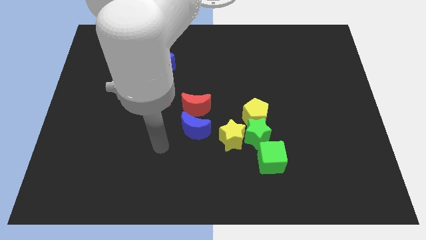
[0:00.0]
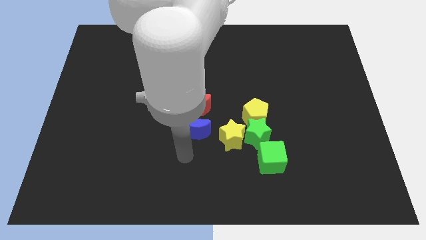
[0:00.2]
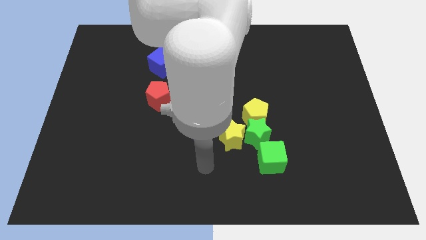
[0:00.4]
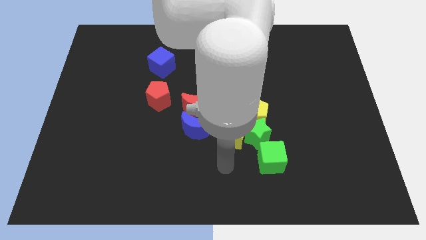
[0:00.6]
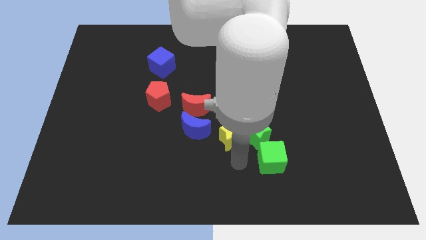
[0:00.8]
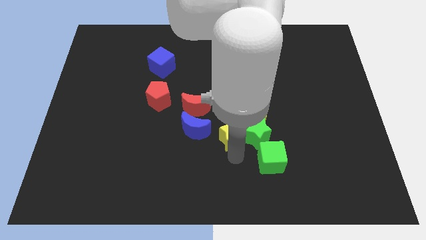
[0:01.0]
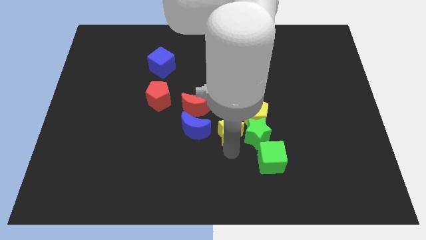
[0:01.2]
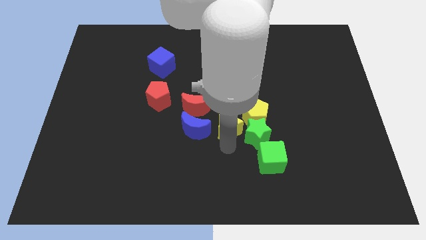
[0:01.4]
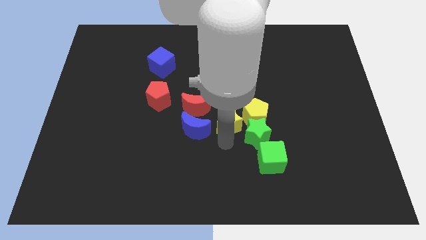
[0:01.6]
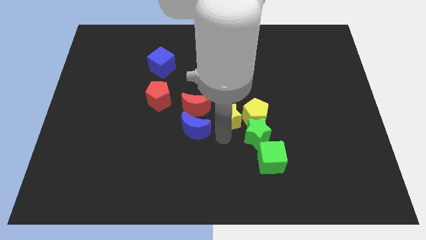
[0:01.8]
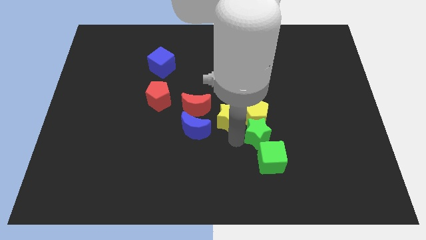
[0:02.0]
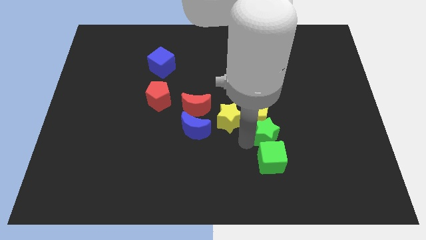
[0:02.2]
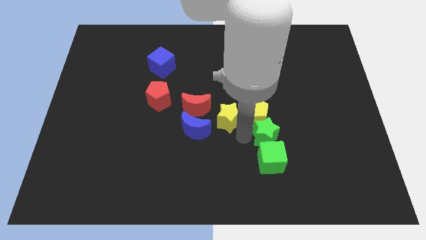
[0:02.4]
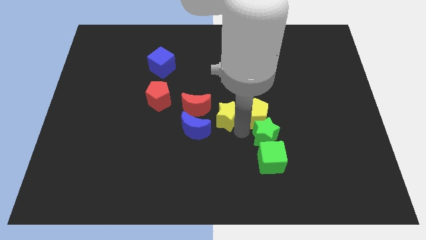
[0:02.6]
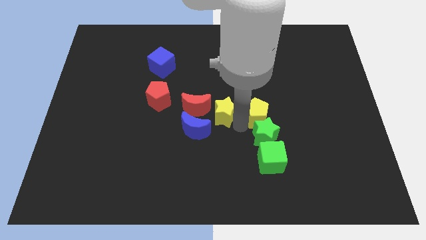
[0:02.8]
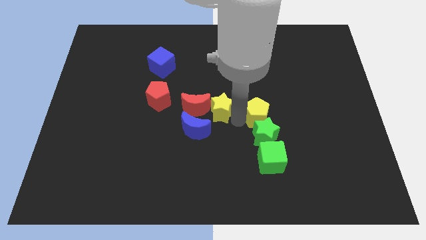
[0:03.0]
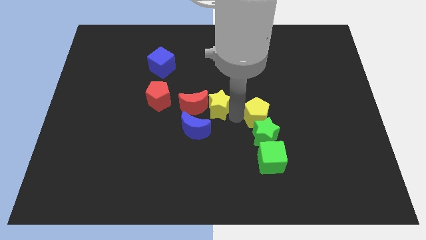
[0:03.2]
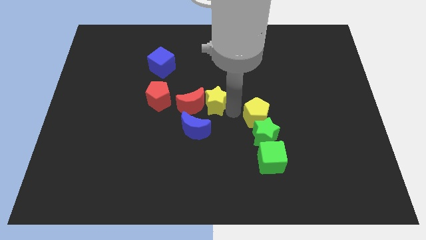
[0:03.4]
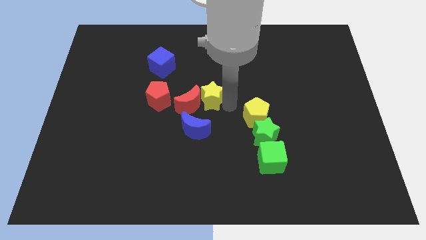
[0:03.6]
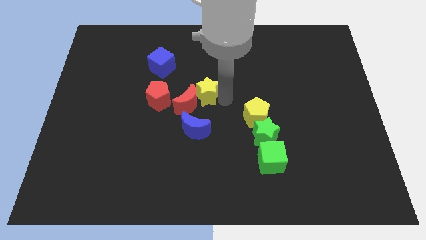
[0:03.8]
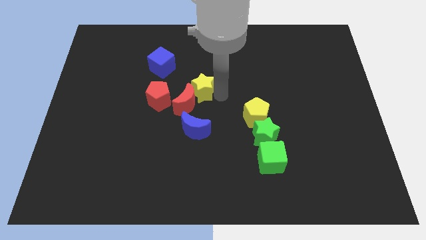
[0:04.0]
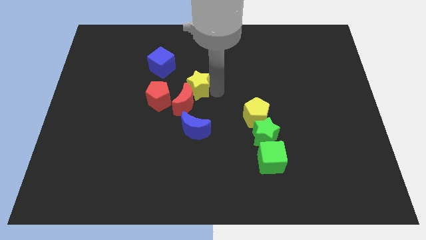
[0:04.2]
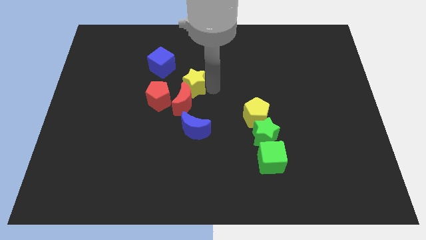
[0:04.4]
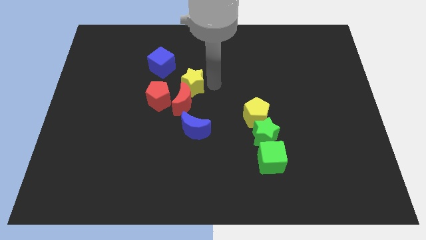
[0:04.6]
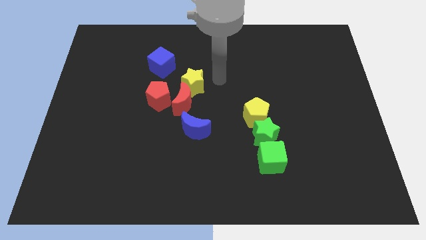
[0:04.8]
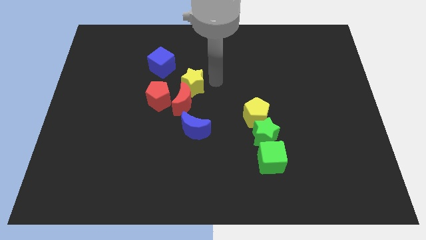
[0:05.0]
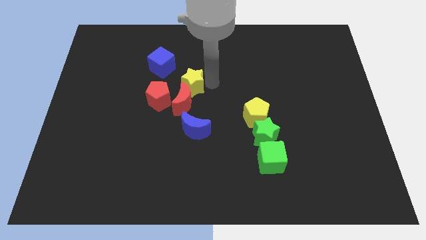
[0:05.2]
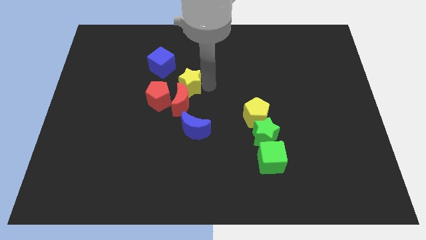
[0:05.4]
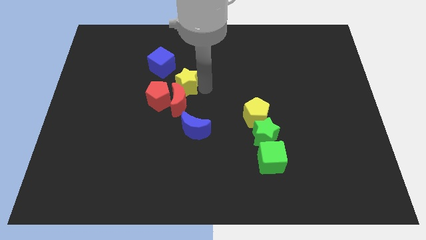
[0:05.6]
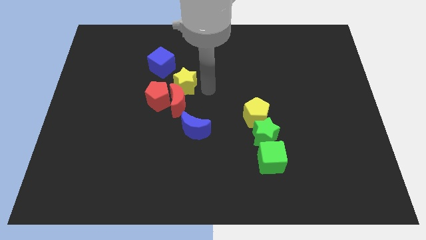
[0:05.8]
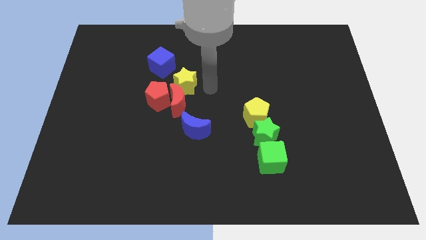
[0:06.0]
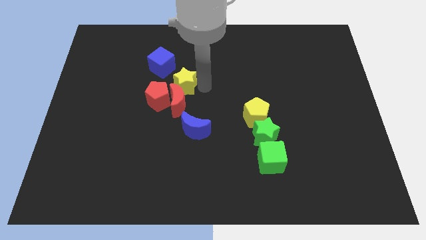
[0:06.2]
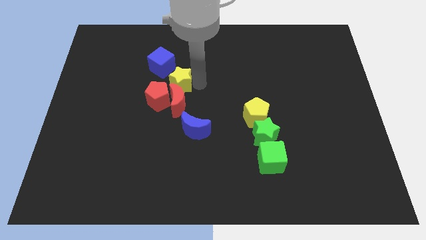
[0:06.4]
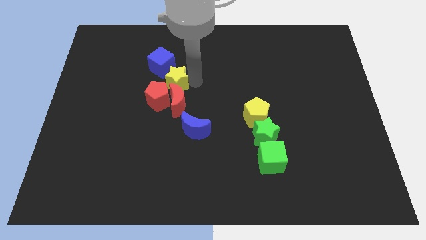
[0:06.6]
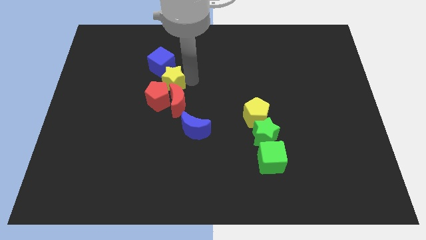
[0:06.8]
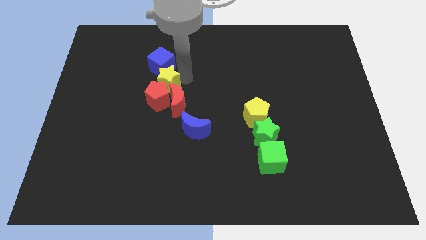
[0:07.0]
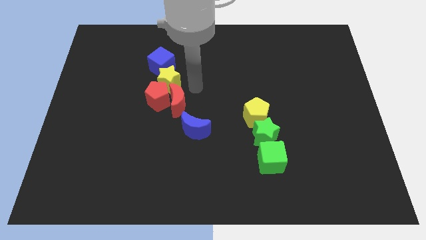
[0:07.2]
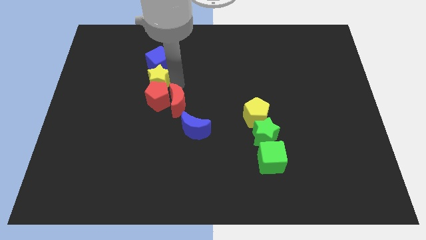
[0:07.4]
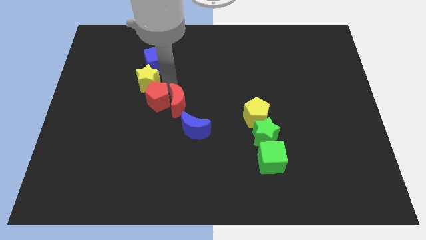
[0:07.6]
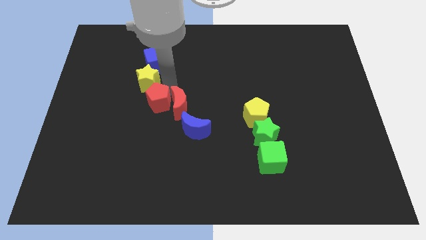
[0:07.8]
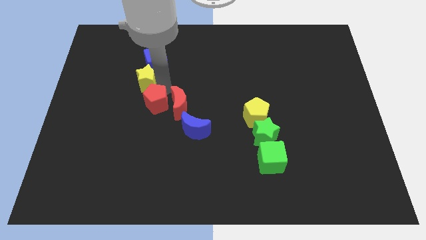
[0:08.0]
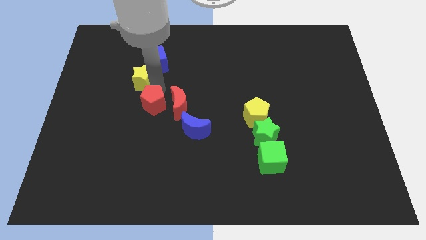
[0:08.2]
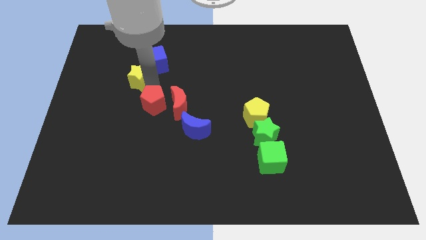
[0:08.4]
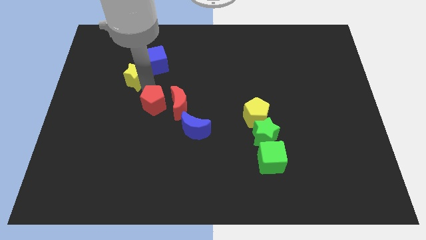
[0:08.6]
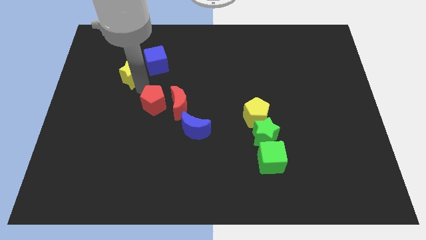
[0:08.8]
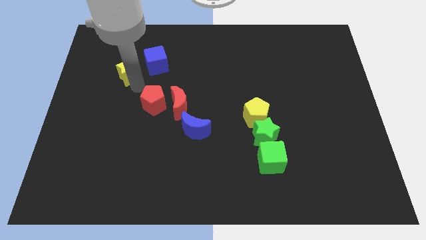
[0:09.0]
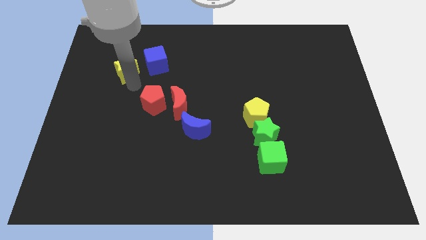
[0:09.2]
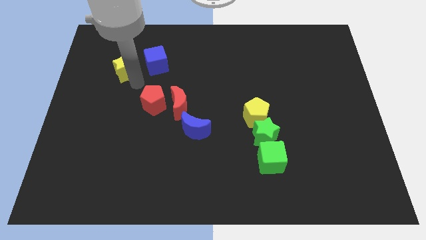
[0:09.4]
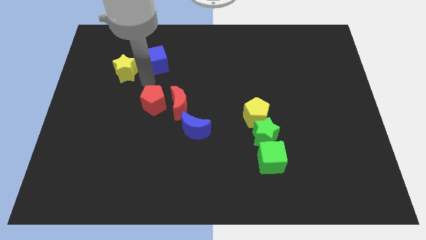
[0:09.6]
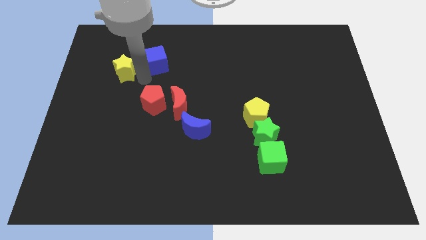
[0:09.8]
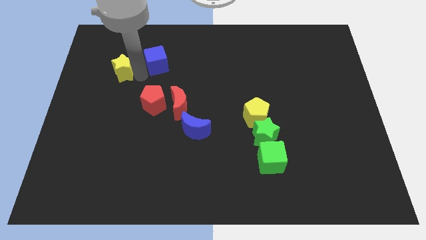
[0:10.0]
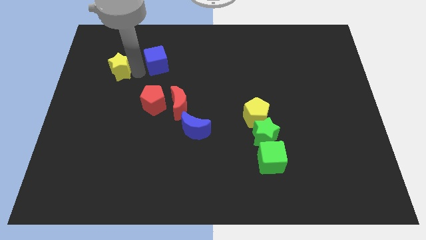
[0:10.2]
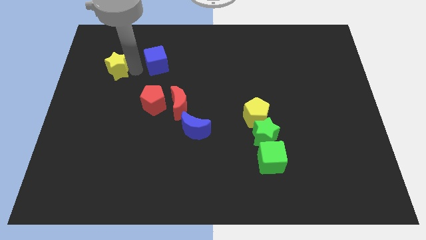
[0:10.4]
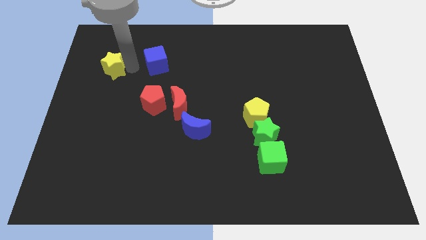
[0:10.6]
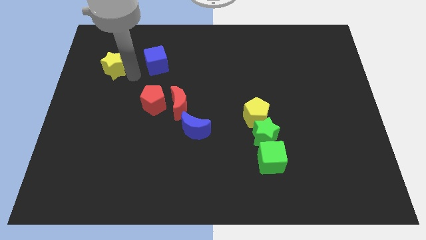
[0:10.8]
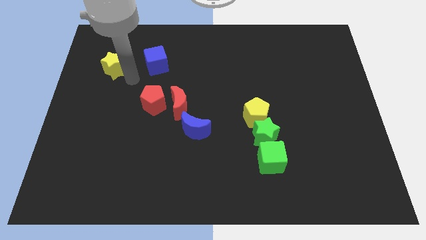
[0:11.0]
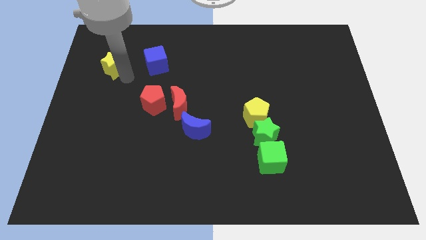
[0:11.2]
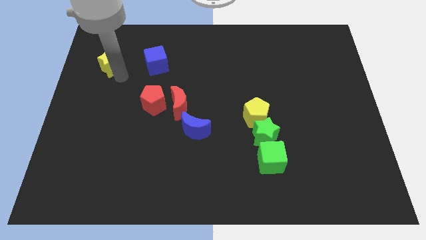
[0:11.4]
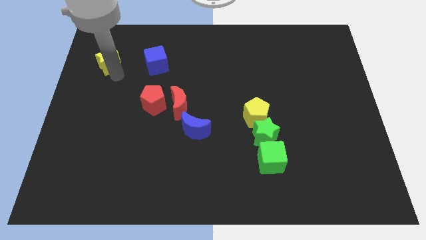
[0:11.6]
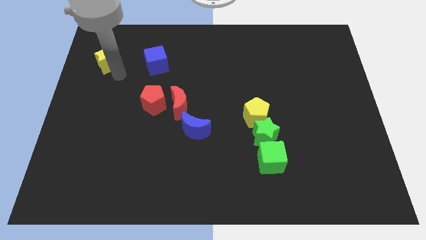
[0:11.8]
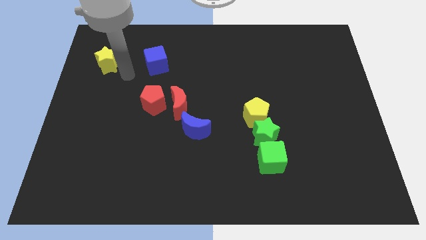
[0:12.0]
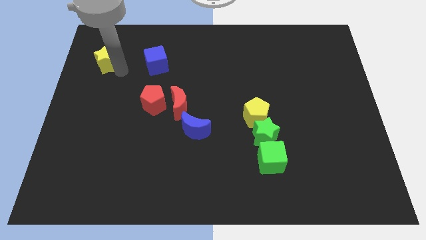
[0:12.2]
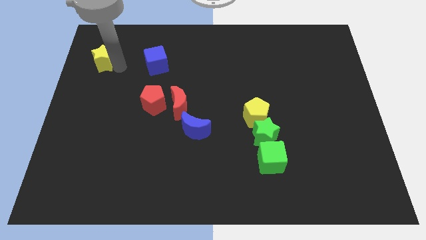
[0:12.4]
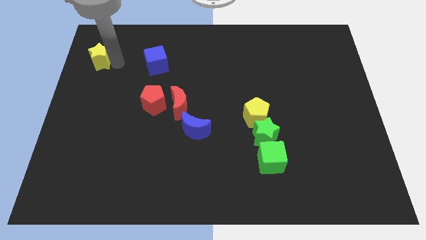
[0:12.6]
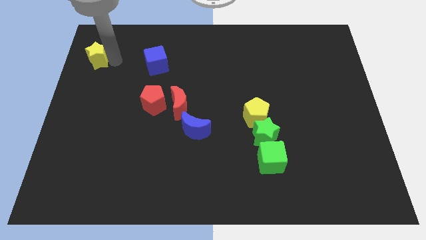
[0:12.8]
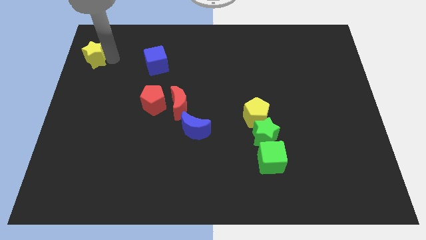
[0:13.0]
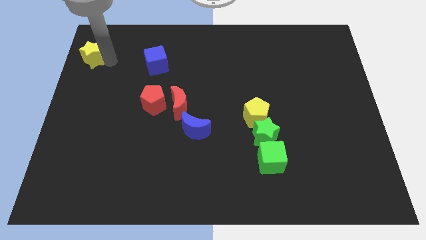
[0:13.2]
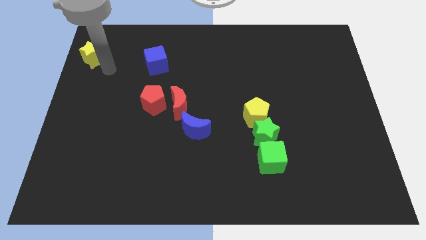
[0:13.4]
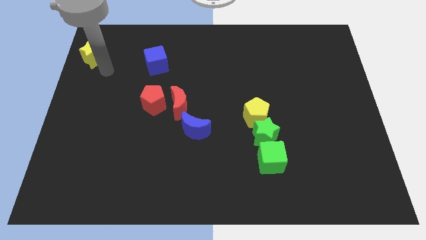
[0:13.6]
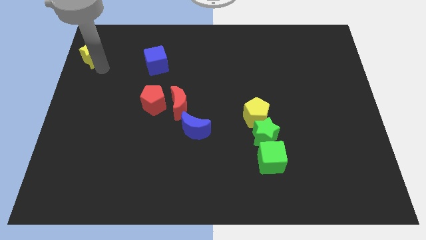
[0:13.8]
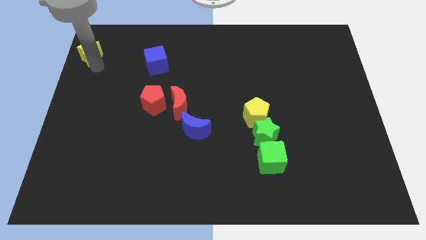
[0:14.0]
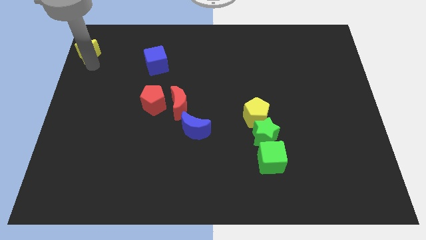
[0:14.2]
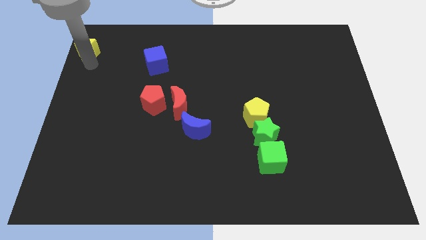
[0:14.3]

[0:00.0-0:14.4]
put the yellow star to the top left of the board

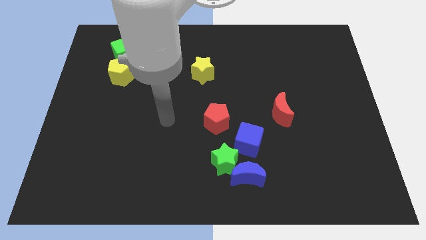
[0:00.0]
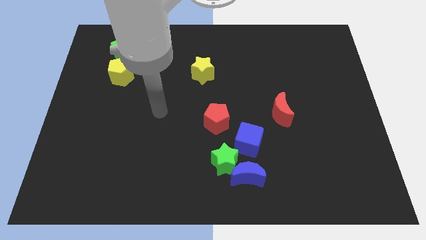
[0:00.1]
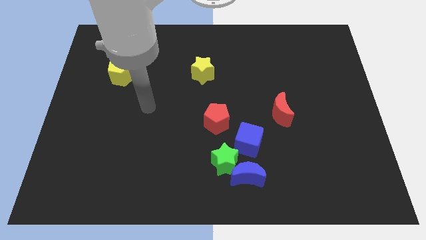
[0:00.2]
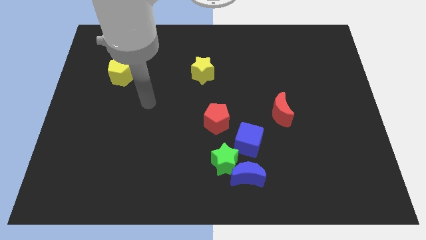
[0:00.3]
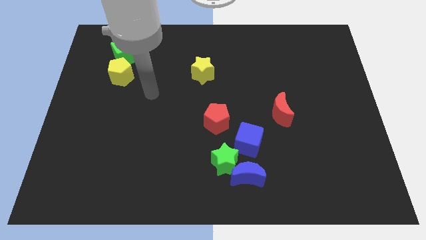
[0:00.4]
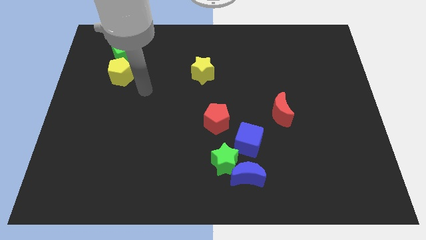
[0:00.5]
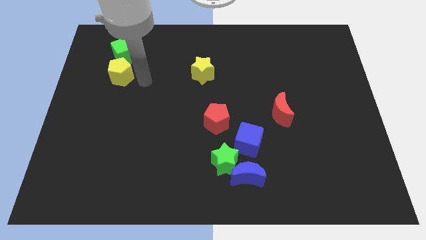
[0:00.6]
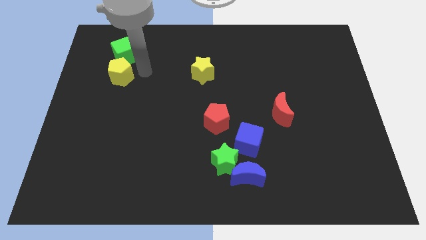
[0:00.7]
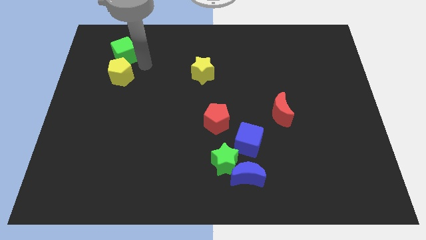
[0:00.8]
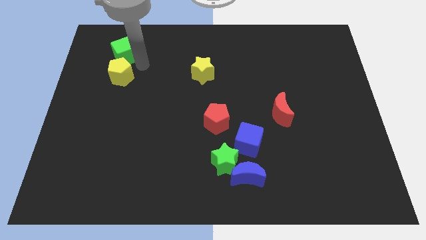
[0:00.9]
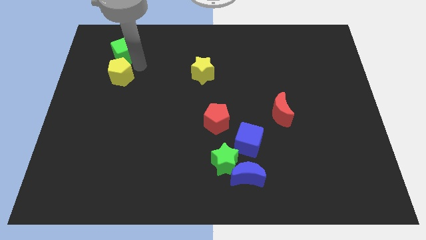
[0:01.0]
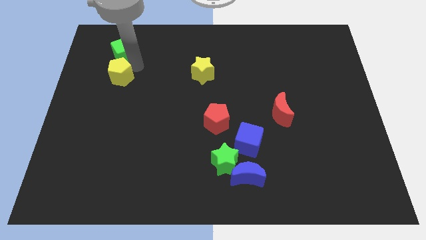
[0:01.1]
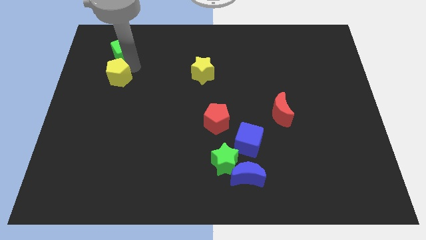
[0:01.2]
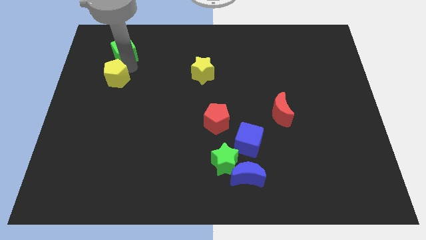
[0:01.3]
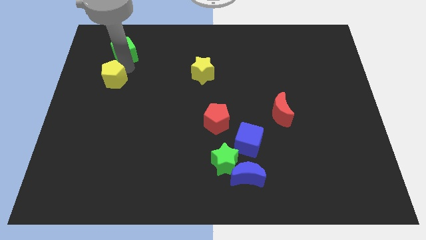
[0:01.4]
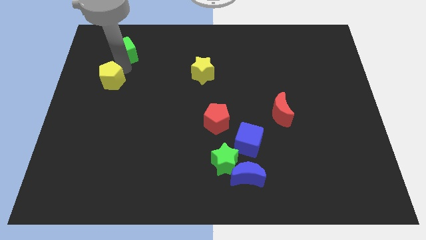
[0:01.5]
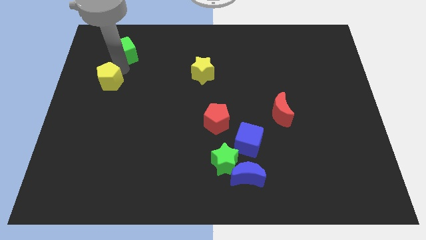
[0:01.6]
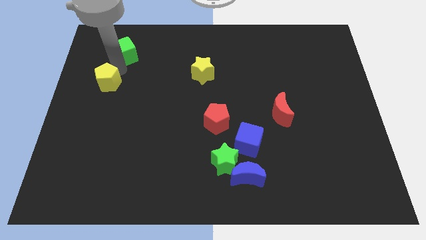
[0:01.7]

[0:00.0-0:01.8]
push the yellow pentagon to the left side of the board
